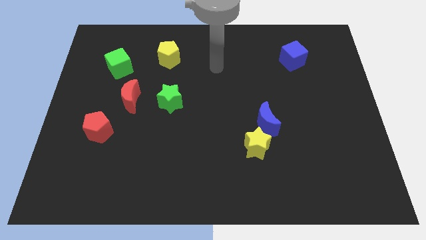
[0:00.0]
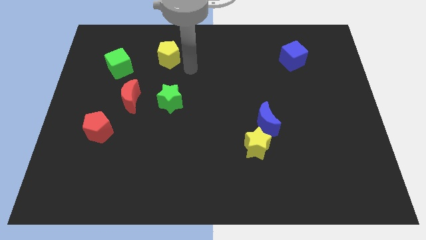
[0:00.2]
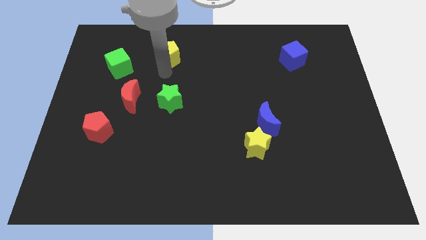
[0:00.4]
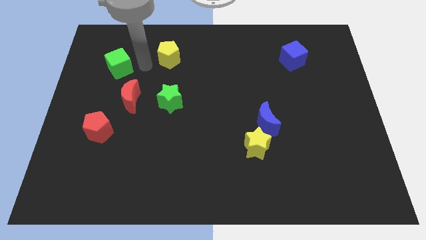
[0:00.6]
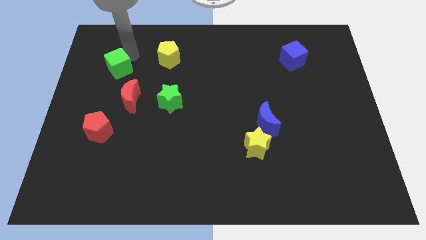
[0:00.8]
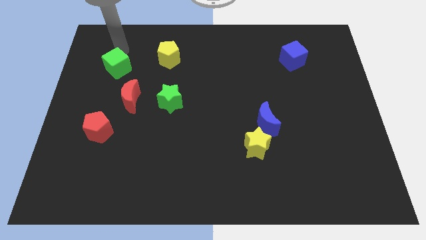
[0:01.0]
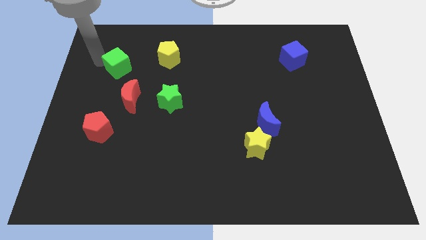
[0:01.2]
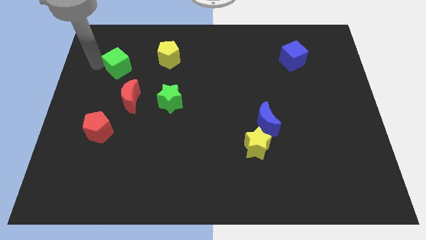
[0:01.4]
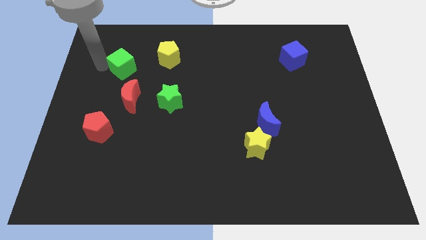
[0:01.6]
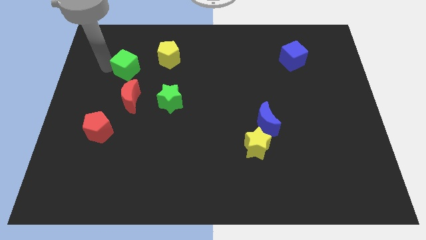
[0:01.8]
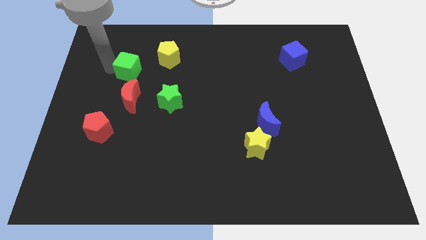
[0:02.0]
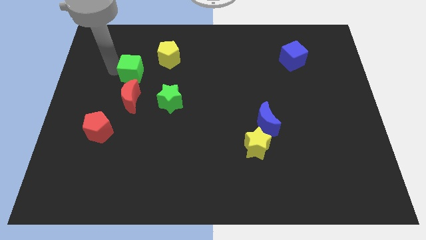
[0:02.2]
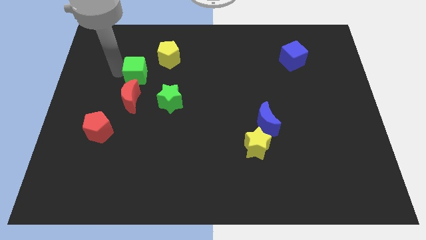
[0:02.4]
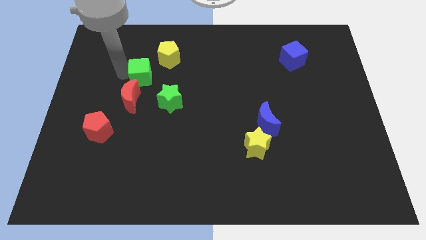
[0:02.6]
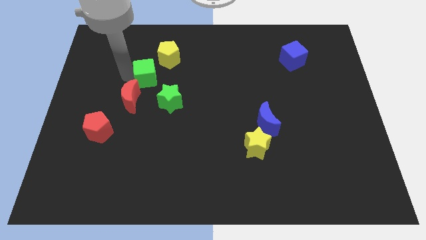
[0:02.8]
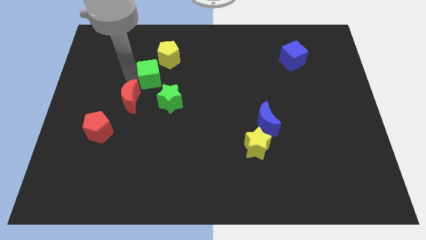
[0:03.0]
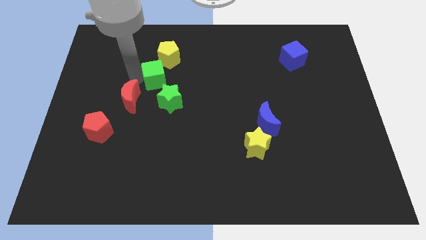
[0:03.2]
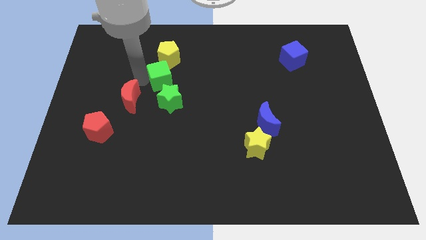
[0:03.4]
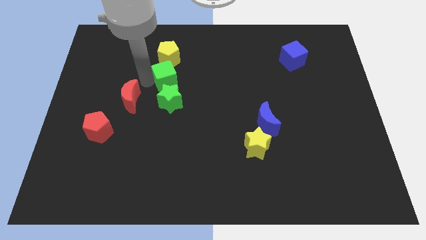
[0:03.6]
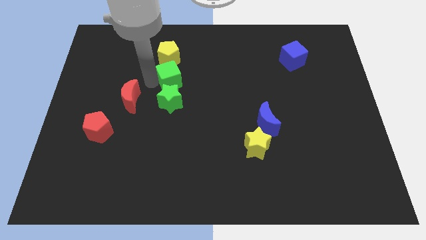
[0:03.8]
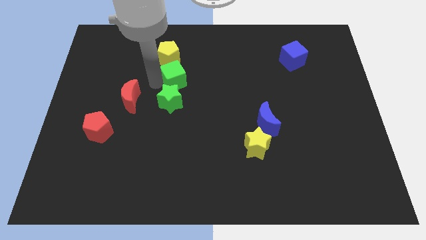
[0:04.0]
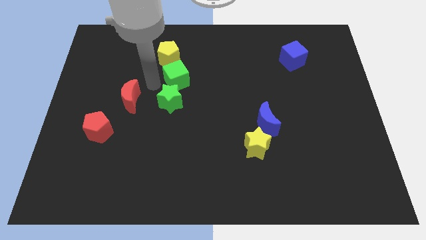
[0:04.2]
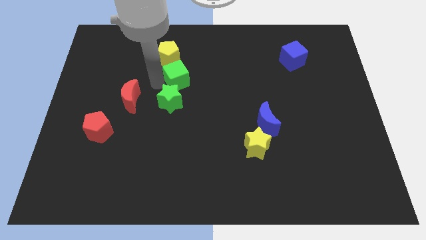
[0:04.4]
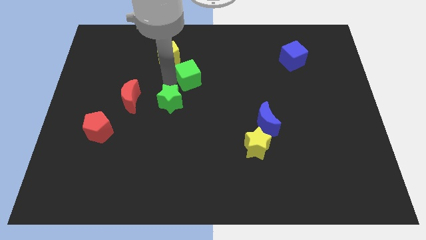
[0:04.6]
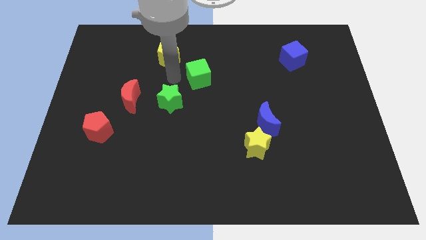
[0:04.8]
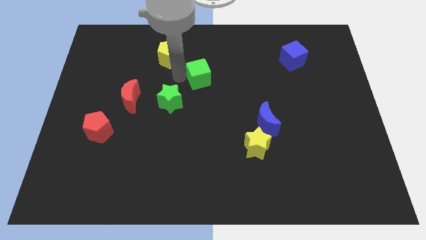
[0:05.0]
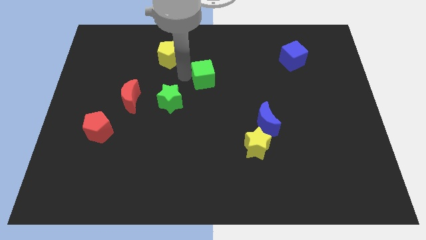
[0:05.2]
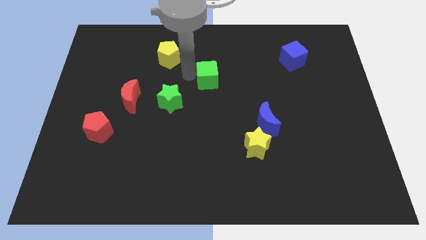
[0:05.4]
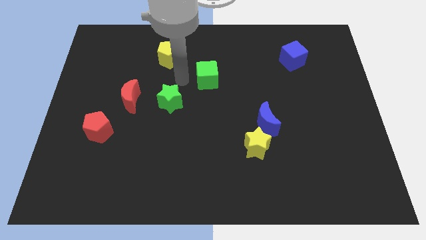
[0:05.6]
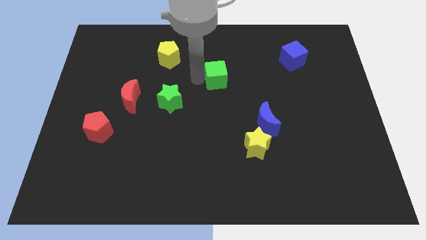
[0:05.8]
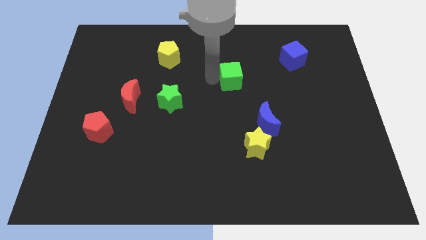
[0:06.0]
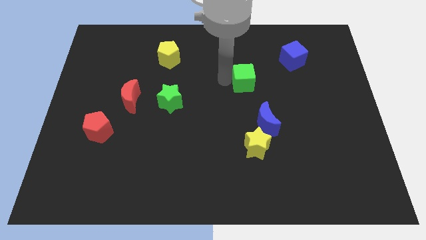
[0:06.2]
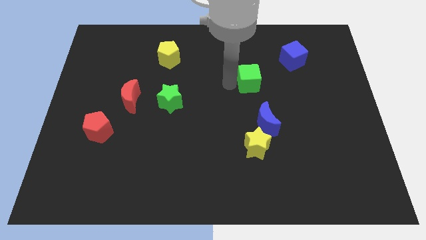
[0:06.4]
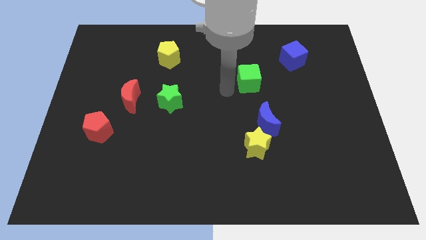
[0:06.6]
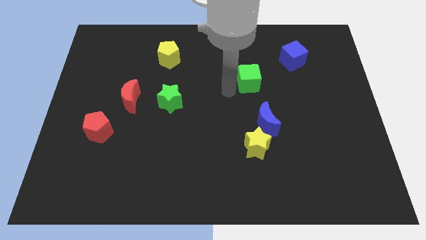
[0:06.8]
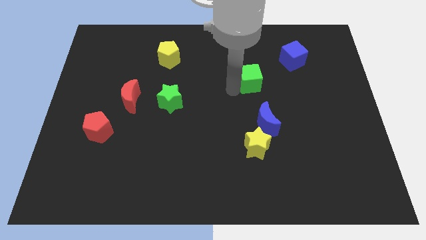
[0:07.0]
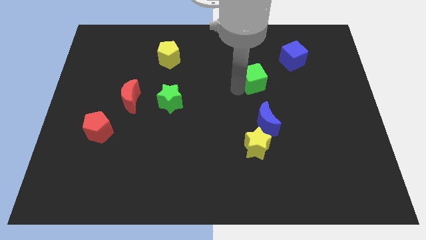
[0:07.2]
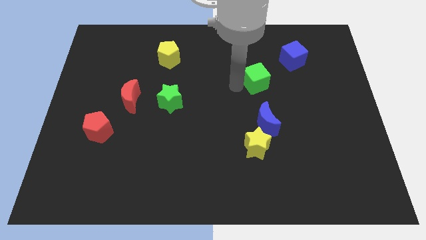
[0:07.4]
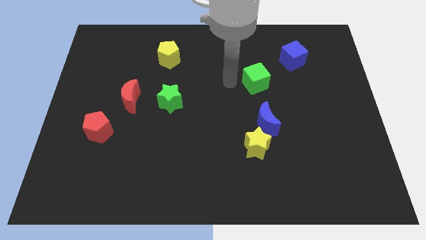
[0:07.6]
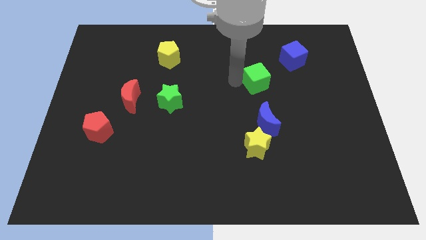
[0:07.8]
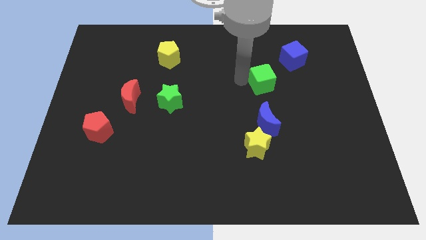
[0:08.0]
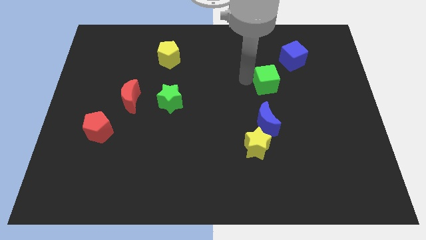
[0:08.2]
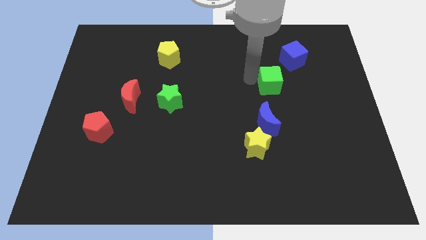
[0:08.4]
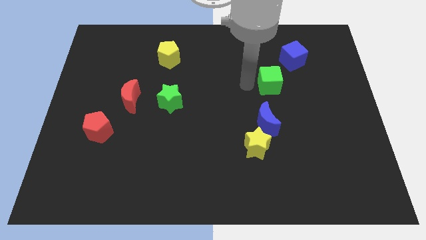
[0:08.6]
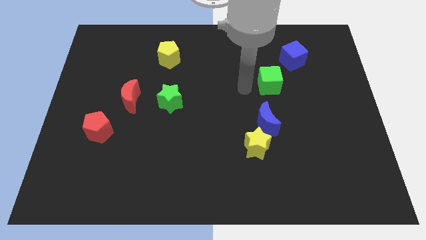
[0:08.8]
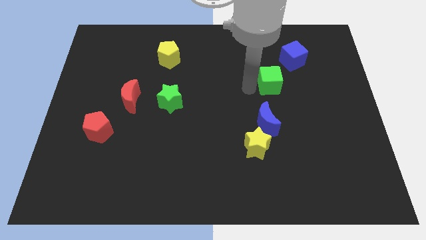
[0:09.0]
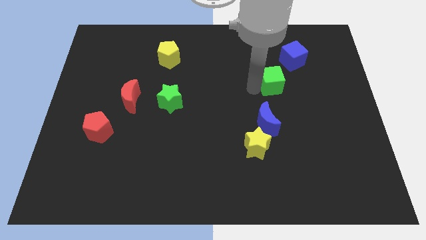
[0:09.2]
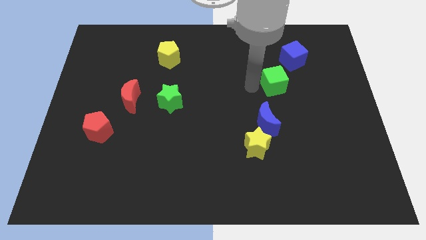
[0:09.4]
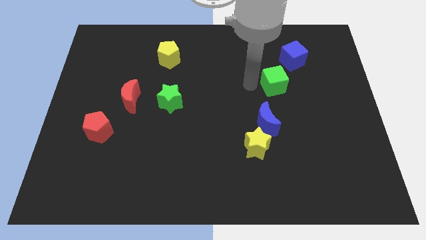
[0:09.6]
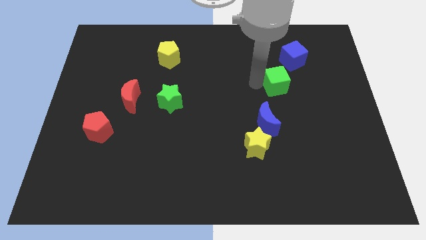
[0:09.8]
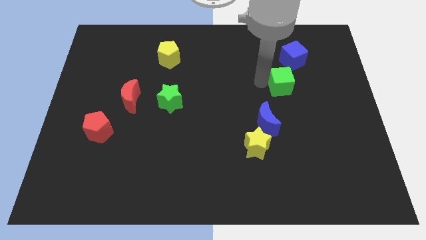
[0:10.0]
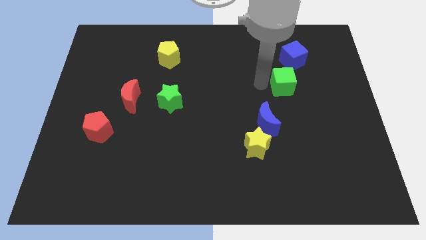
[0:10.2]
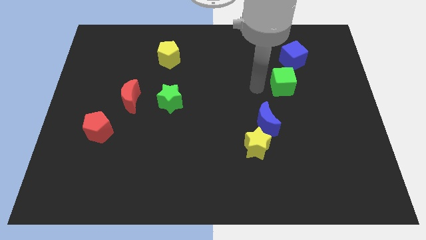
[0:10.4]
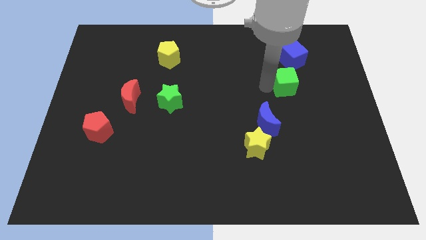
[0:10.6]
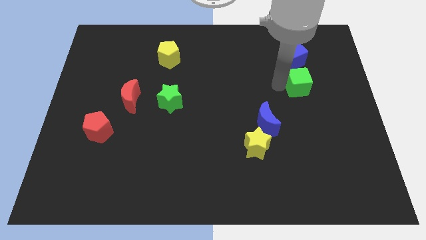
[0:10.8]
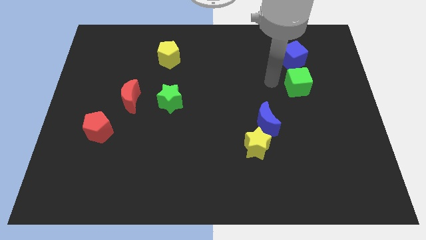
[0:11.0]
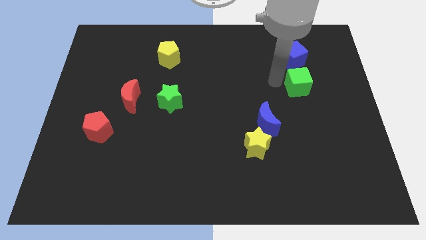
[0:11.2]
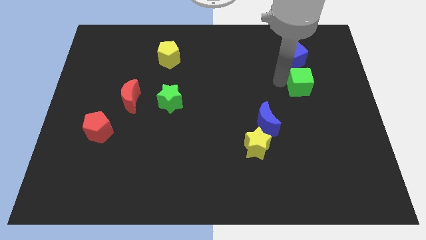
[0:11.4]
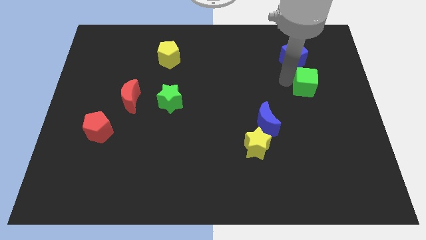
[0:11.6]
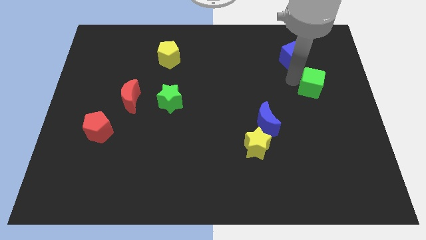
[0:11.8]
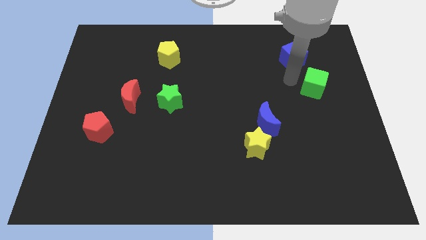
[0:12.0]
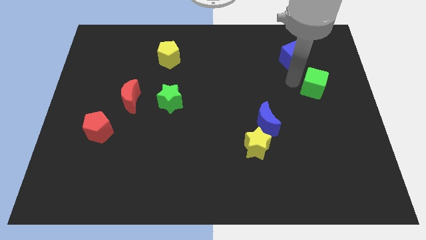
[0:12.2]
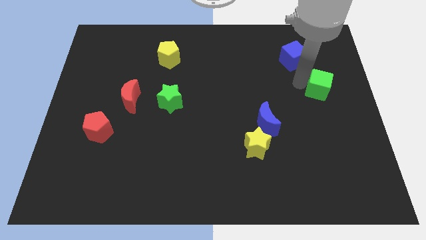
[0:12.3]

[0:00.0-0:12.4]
slide the green cube to the right side of the board

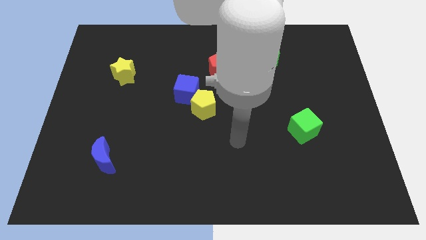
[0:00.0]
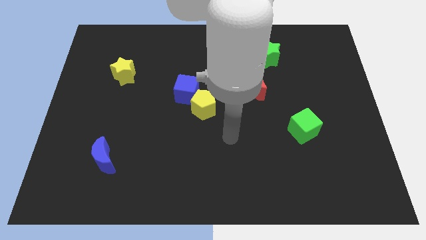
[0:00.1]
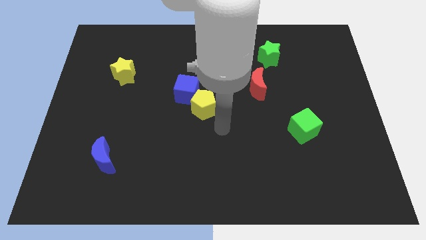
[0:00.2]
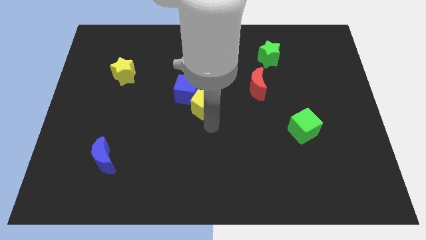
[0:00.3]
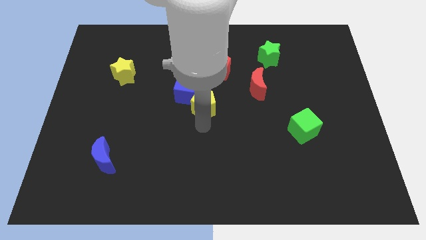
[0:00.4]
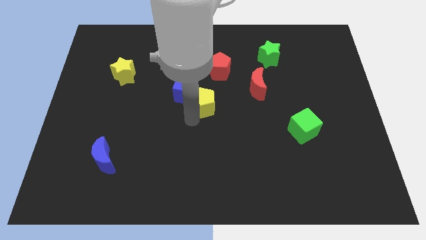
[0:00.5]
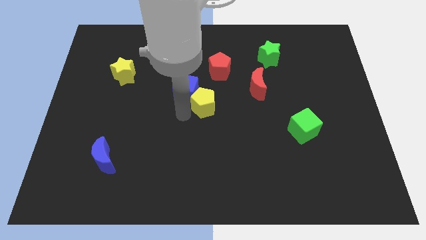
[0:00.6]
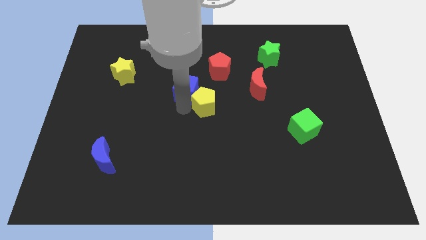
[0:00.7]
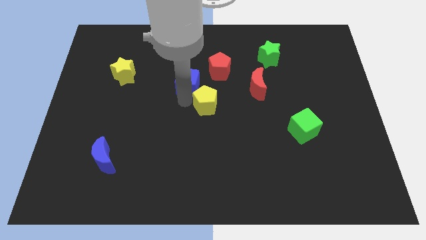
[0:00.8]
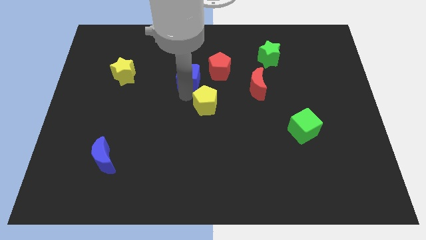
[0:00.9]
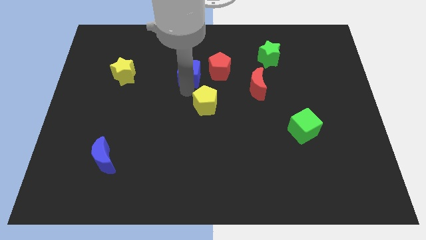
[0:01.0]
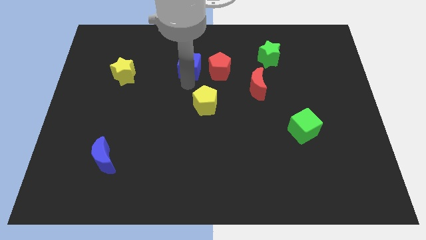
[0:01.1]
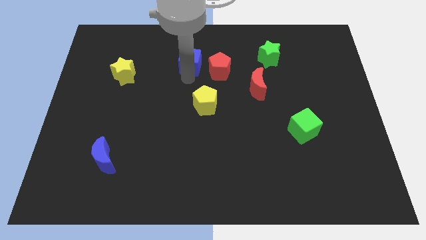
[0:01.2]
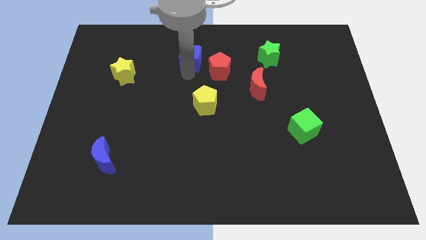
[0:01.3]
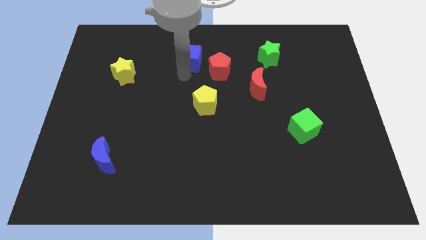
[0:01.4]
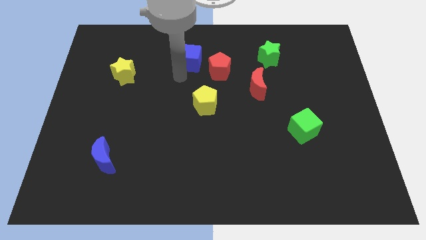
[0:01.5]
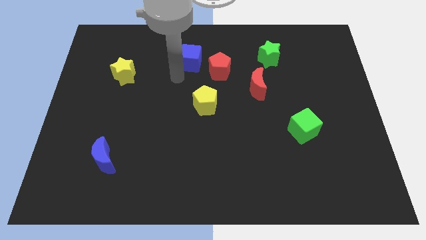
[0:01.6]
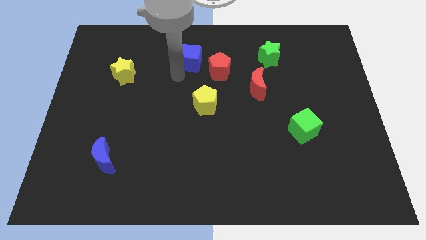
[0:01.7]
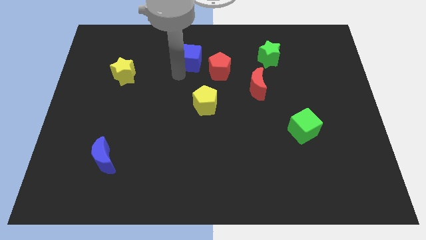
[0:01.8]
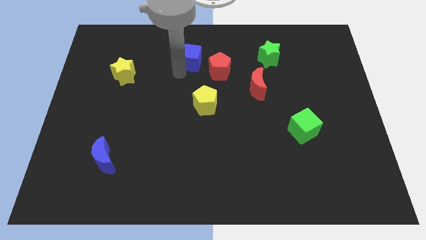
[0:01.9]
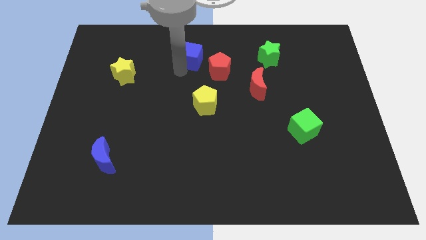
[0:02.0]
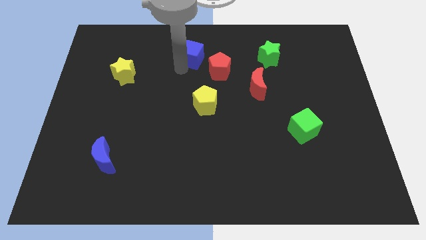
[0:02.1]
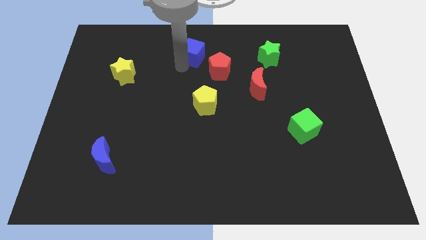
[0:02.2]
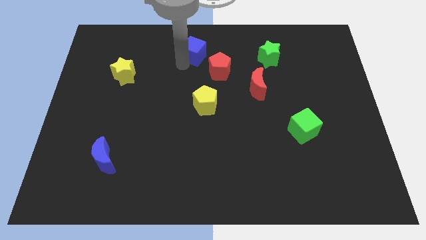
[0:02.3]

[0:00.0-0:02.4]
slide the blue cube to the top side
